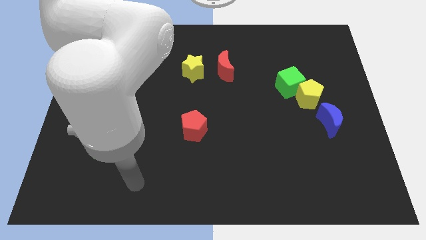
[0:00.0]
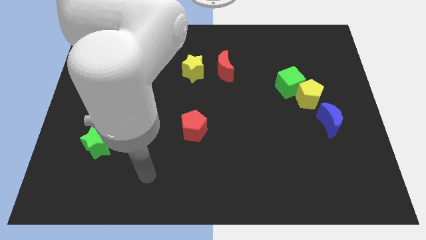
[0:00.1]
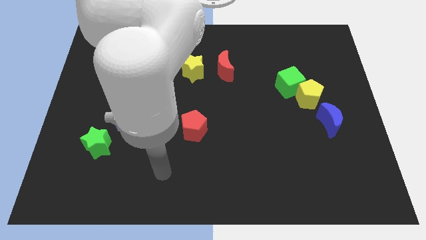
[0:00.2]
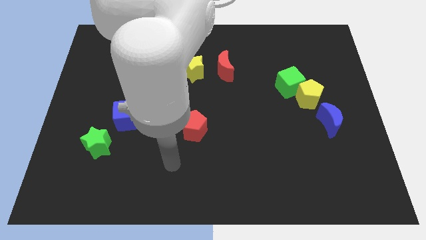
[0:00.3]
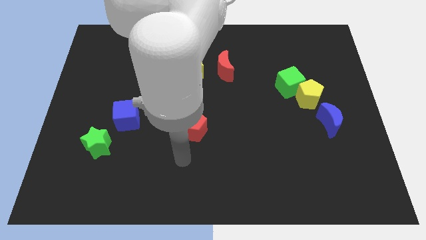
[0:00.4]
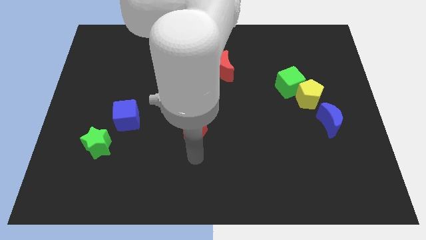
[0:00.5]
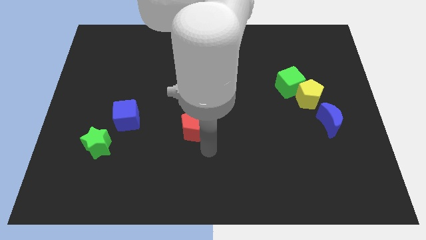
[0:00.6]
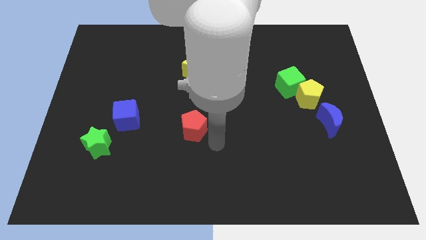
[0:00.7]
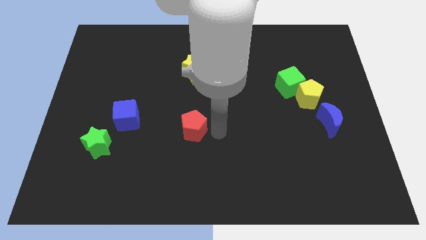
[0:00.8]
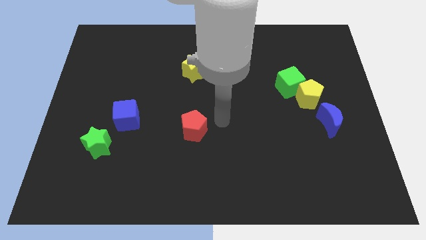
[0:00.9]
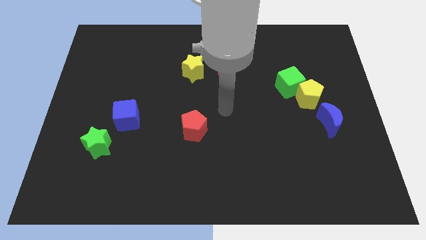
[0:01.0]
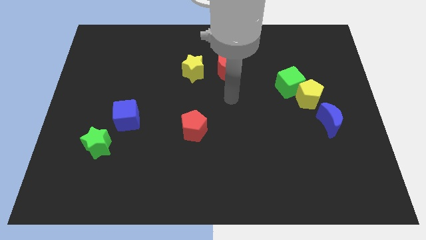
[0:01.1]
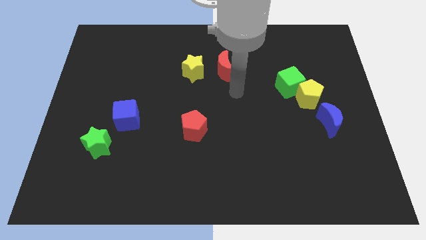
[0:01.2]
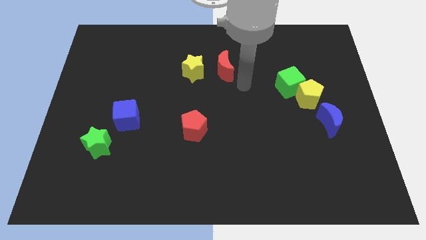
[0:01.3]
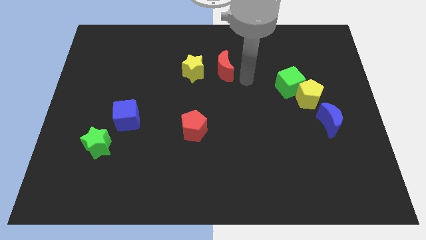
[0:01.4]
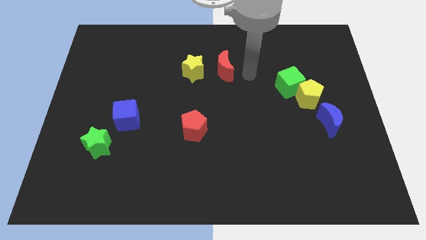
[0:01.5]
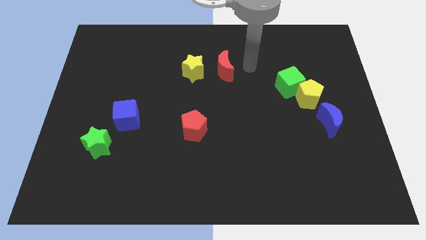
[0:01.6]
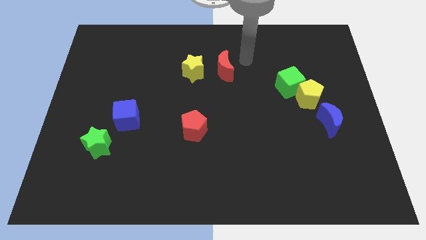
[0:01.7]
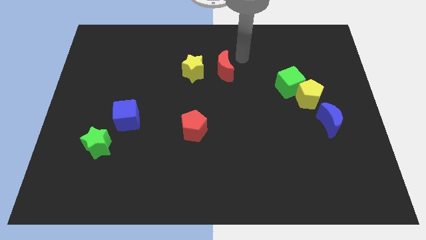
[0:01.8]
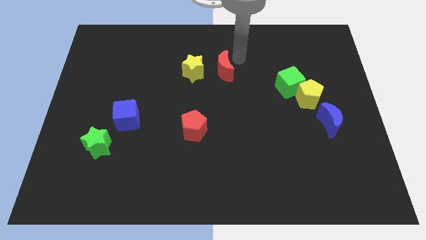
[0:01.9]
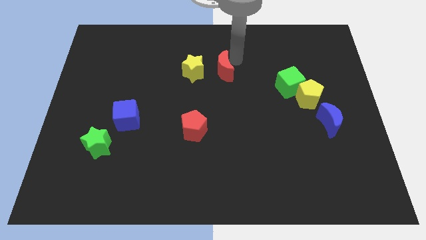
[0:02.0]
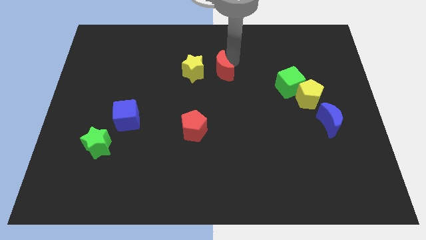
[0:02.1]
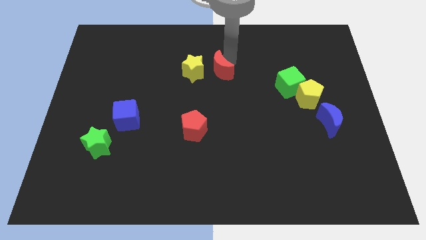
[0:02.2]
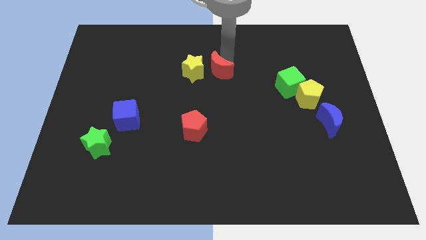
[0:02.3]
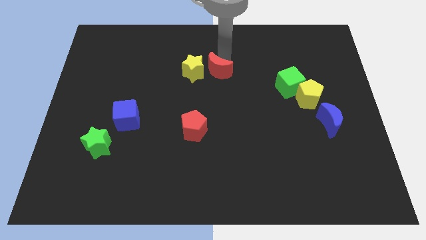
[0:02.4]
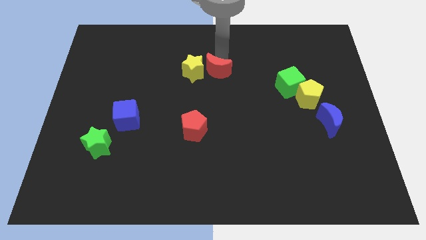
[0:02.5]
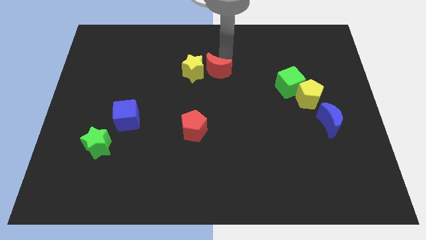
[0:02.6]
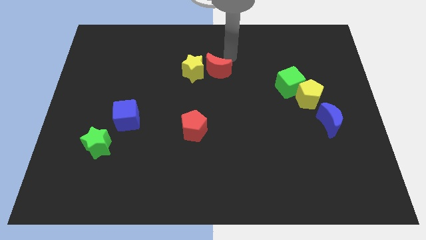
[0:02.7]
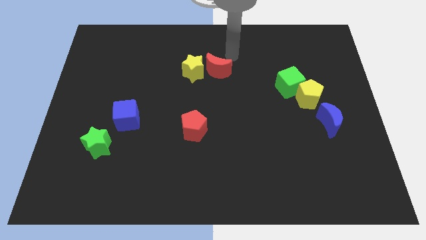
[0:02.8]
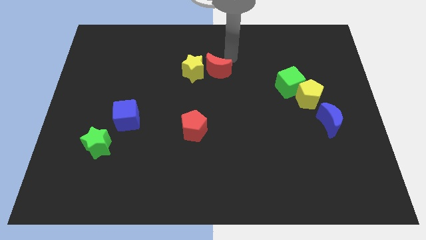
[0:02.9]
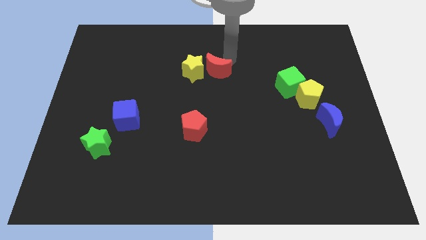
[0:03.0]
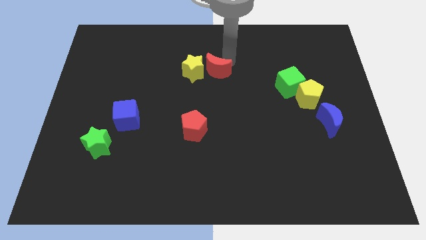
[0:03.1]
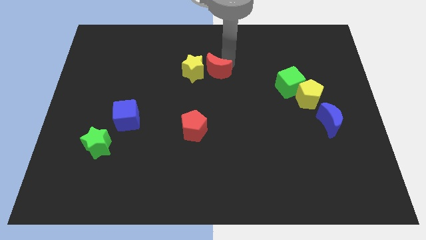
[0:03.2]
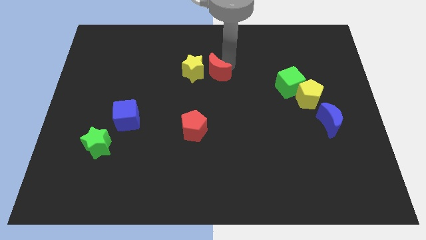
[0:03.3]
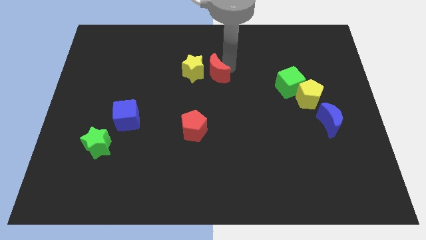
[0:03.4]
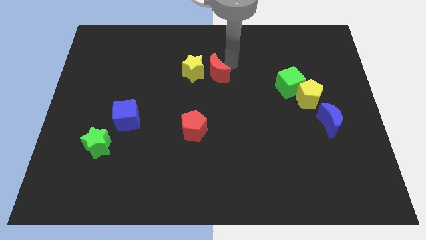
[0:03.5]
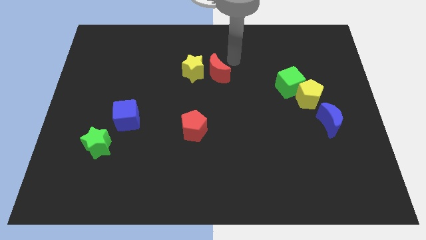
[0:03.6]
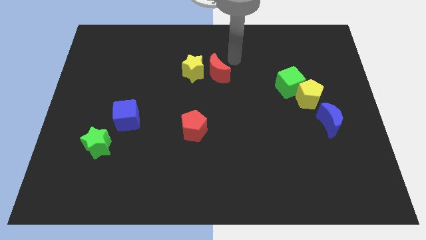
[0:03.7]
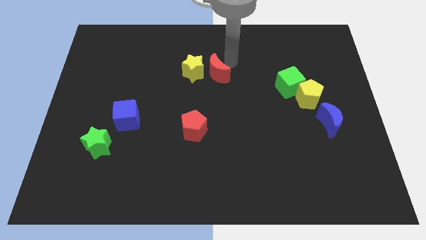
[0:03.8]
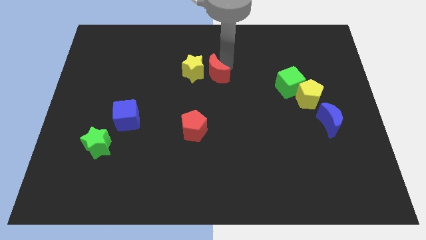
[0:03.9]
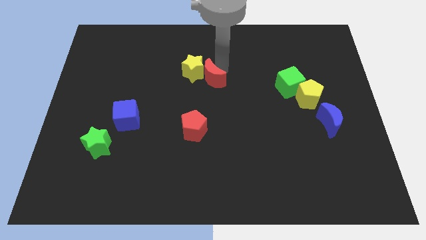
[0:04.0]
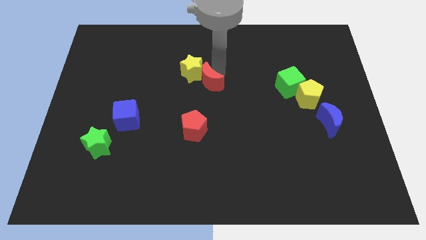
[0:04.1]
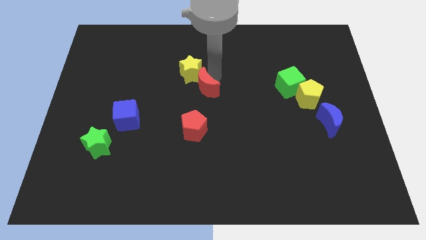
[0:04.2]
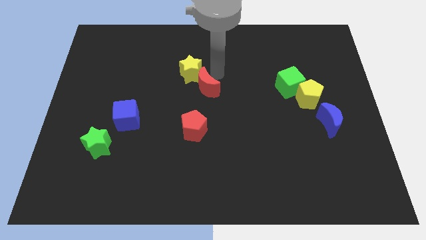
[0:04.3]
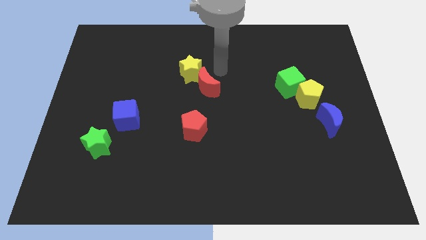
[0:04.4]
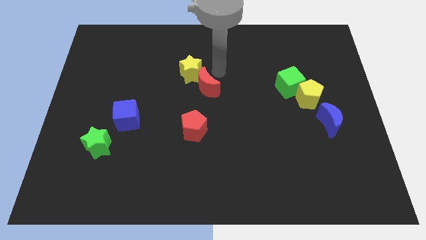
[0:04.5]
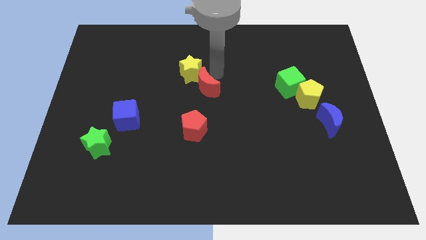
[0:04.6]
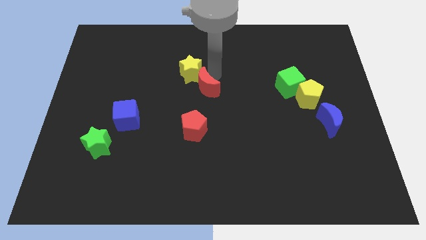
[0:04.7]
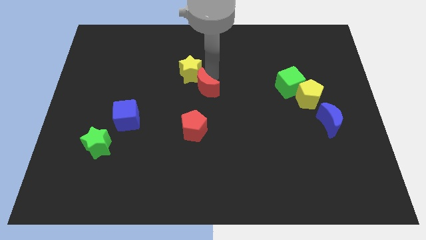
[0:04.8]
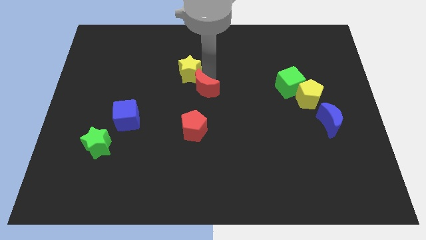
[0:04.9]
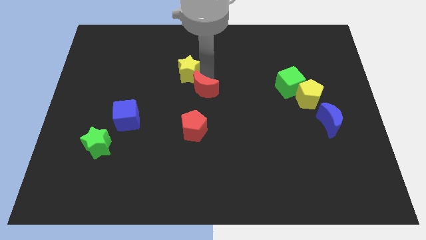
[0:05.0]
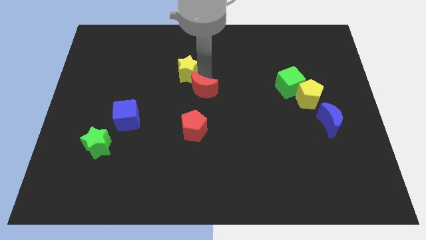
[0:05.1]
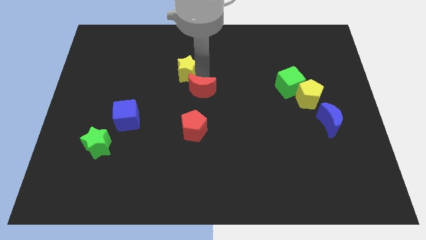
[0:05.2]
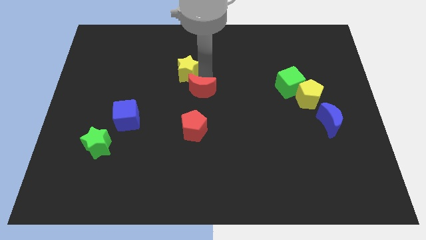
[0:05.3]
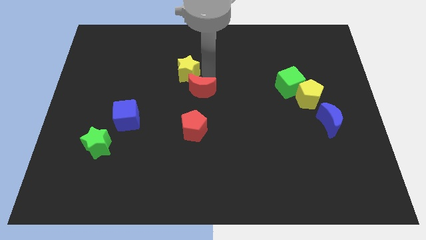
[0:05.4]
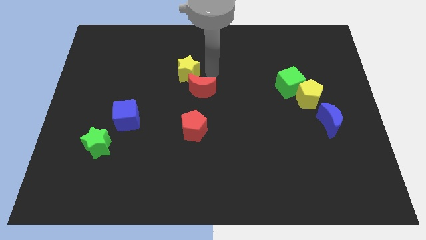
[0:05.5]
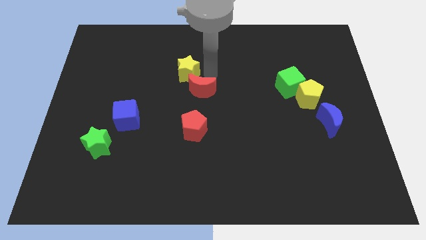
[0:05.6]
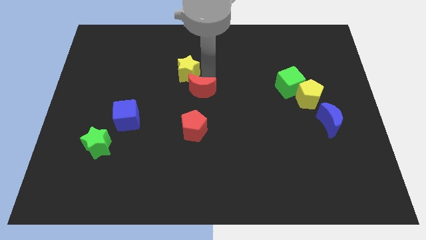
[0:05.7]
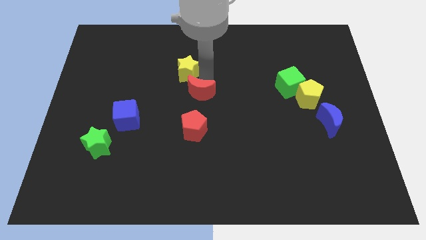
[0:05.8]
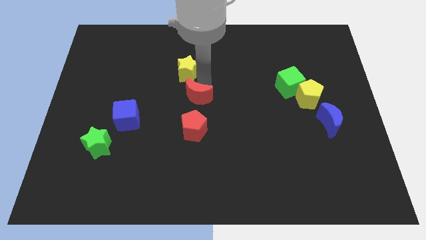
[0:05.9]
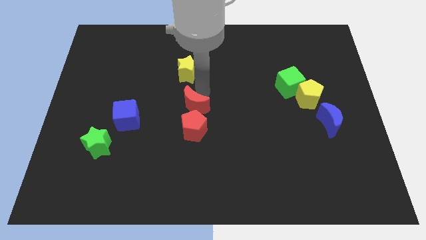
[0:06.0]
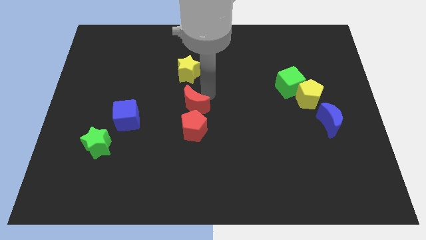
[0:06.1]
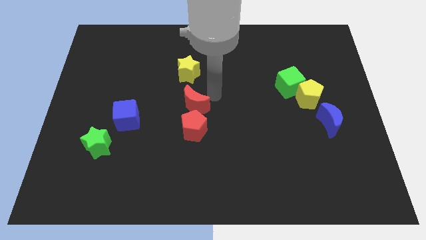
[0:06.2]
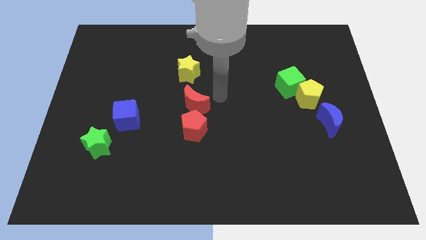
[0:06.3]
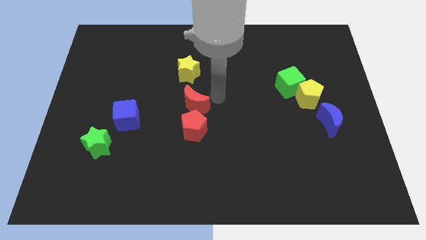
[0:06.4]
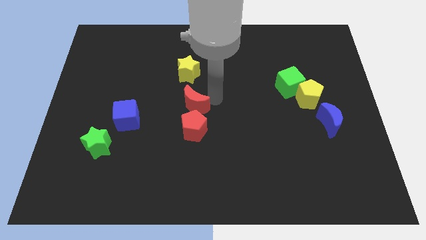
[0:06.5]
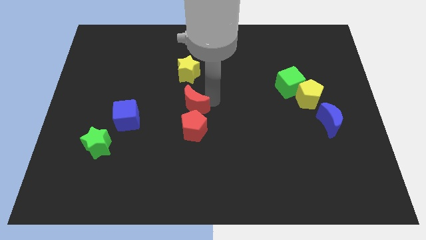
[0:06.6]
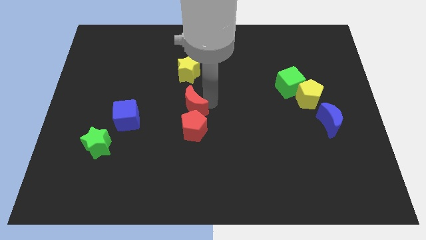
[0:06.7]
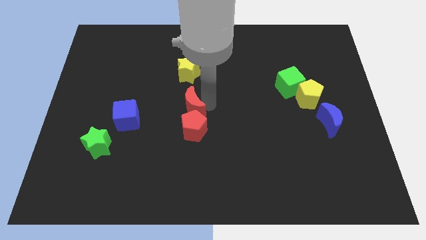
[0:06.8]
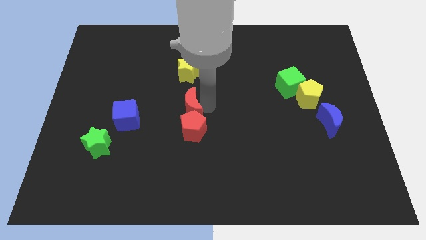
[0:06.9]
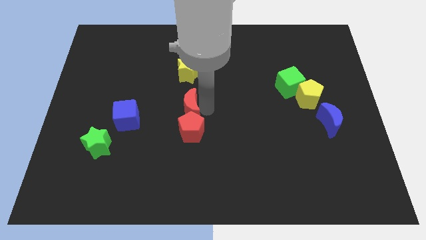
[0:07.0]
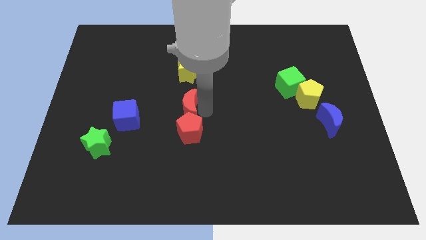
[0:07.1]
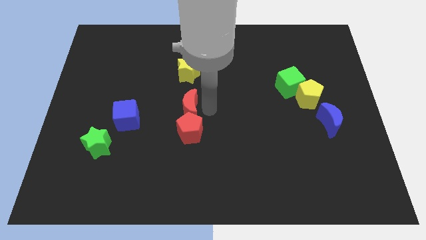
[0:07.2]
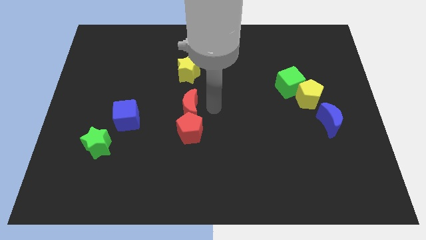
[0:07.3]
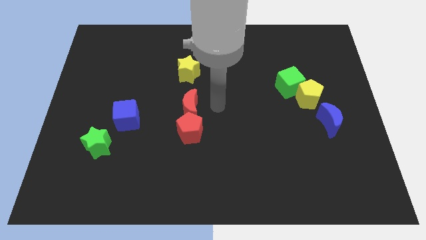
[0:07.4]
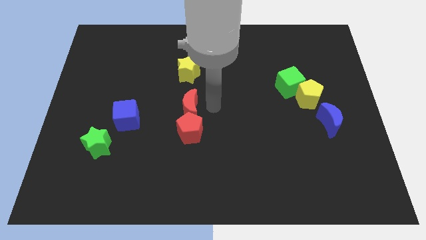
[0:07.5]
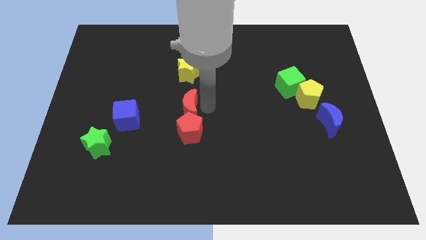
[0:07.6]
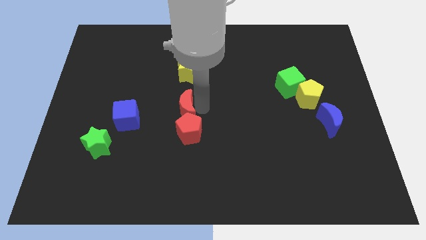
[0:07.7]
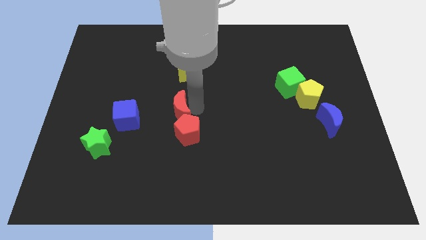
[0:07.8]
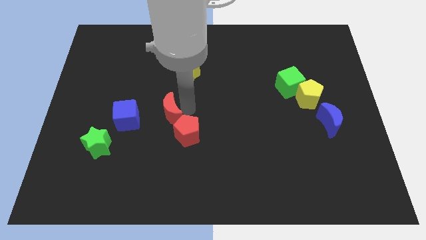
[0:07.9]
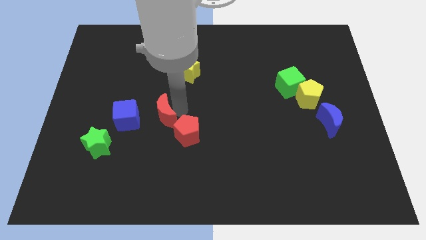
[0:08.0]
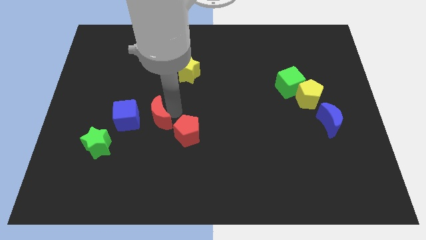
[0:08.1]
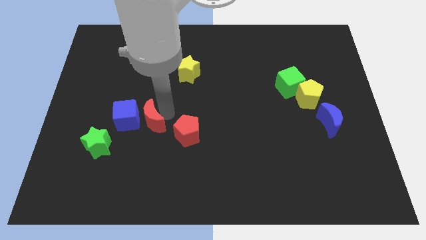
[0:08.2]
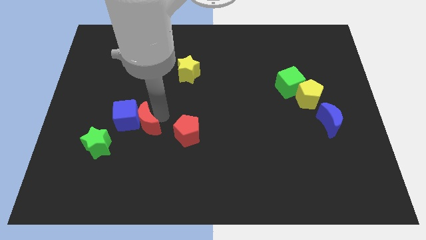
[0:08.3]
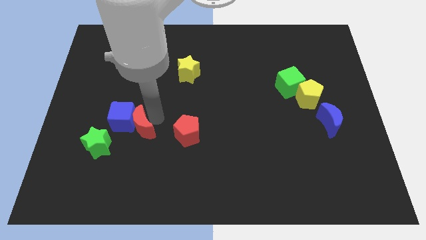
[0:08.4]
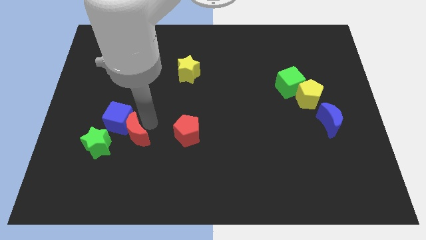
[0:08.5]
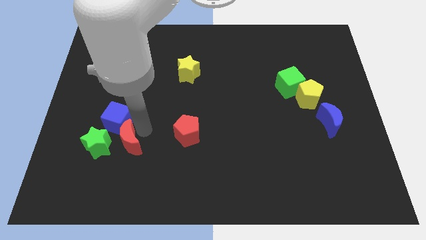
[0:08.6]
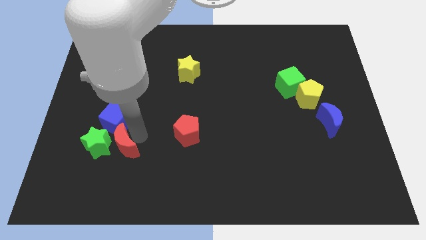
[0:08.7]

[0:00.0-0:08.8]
move the red moon close to the green star
